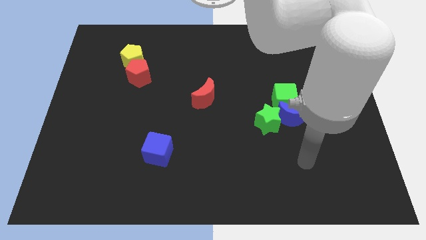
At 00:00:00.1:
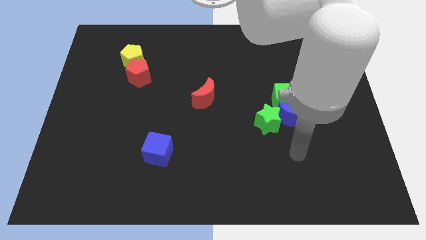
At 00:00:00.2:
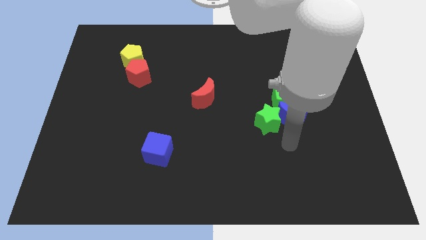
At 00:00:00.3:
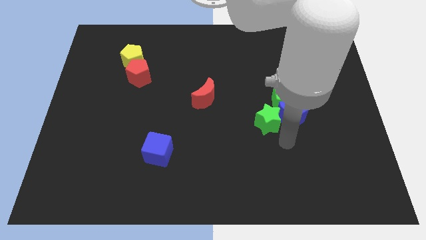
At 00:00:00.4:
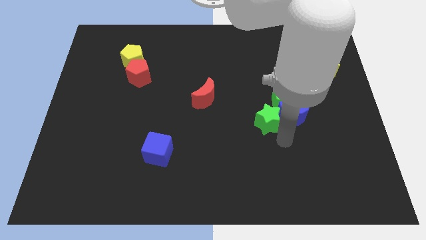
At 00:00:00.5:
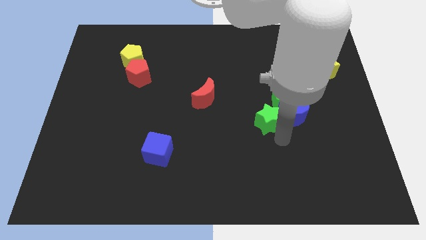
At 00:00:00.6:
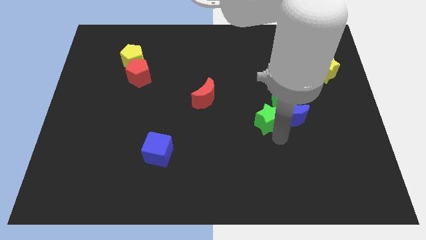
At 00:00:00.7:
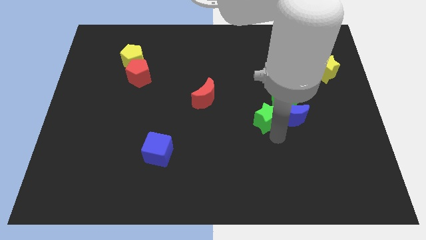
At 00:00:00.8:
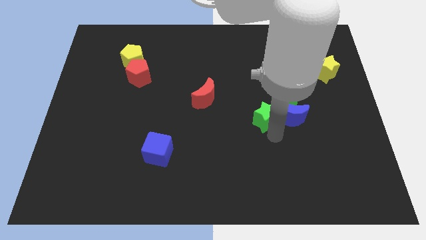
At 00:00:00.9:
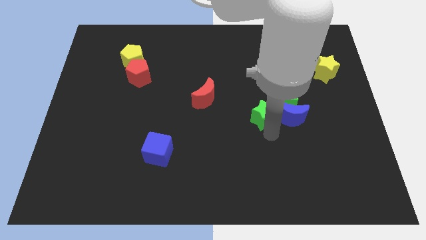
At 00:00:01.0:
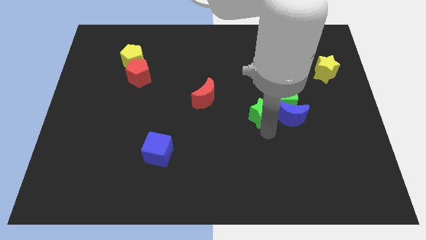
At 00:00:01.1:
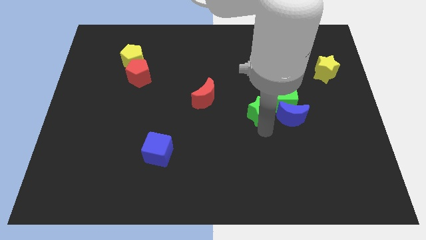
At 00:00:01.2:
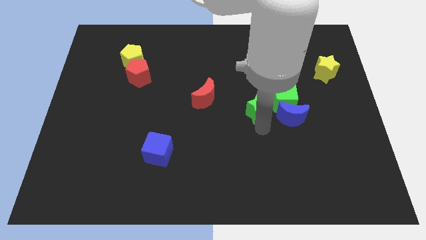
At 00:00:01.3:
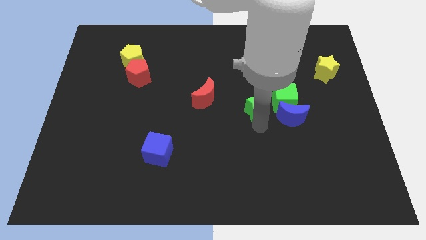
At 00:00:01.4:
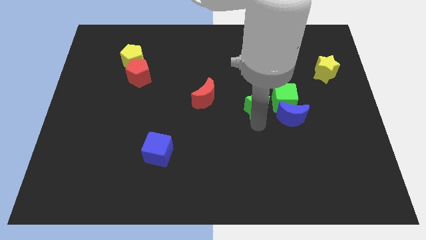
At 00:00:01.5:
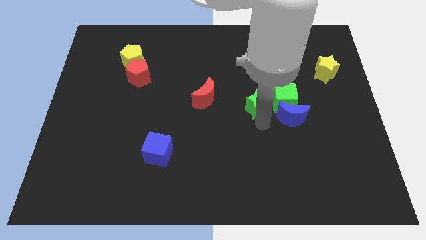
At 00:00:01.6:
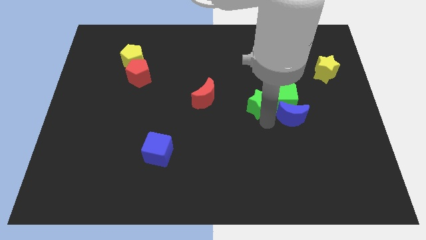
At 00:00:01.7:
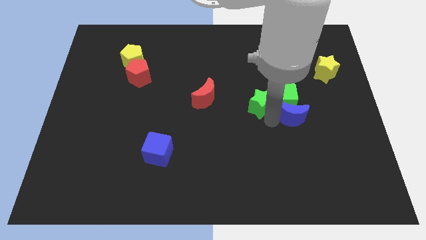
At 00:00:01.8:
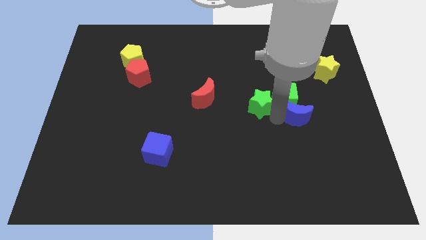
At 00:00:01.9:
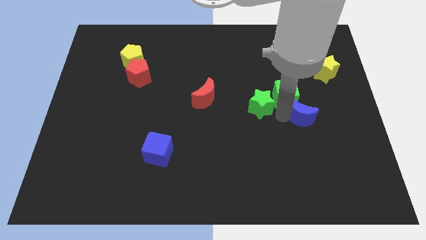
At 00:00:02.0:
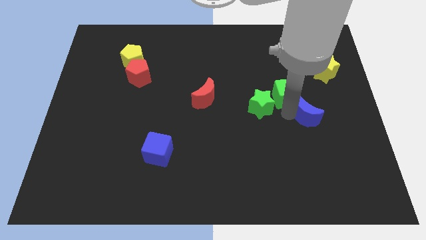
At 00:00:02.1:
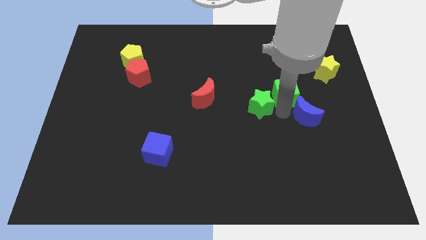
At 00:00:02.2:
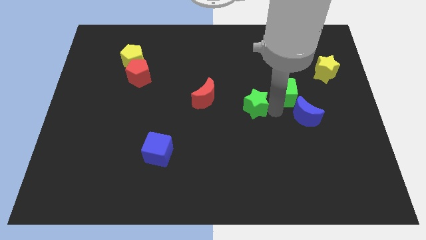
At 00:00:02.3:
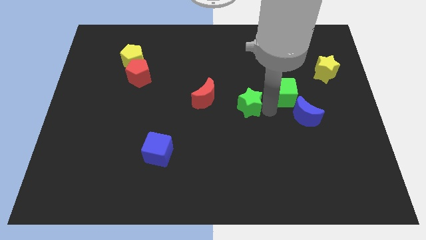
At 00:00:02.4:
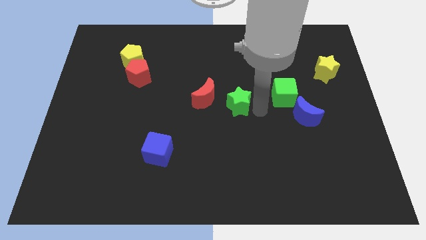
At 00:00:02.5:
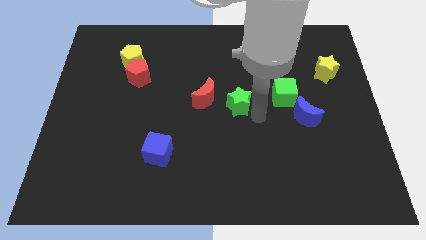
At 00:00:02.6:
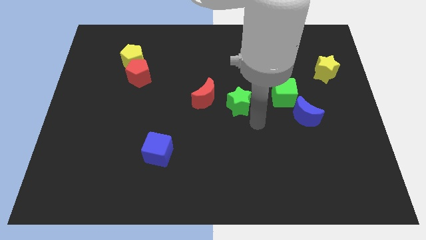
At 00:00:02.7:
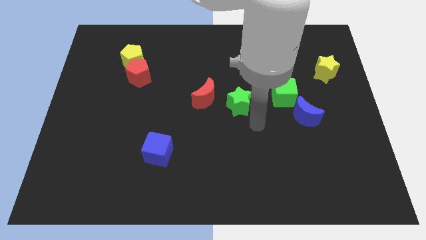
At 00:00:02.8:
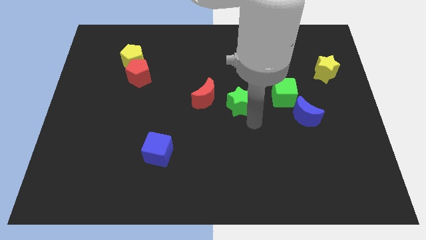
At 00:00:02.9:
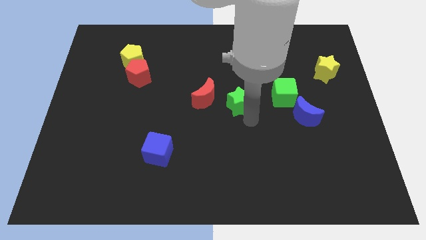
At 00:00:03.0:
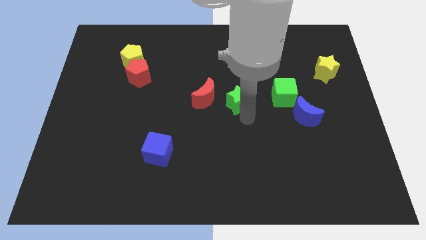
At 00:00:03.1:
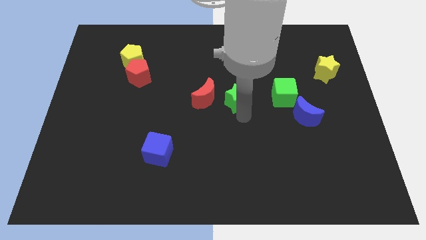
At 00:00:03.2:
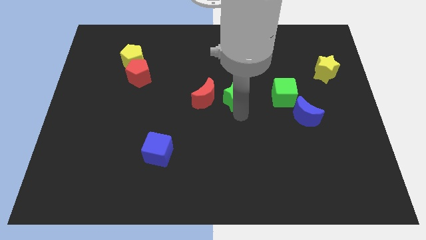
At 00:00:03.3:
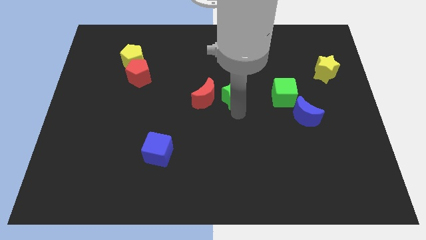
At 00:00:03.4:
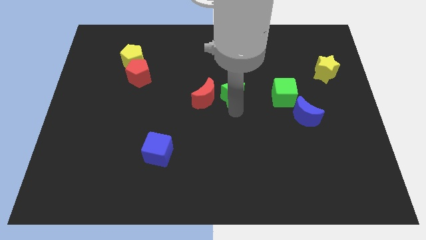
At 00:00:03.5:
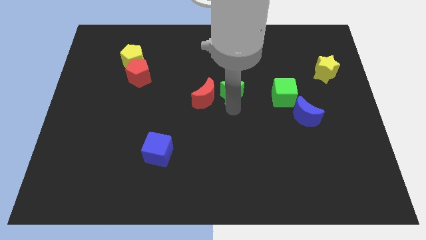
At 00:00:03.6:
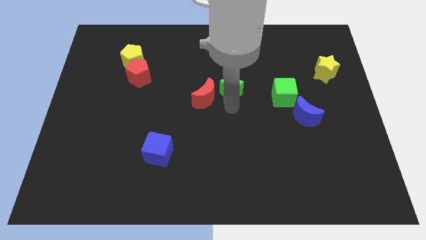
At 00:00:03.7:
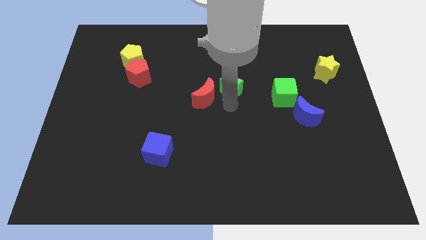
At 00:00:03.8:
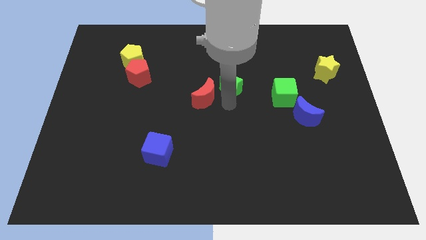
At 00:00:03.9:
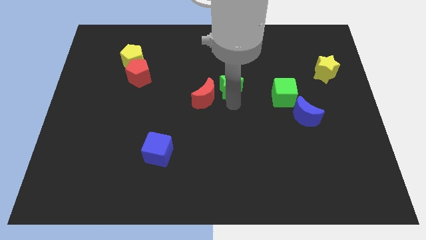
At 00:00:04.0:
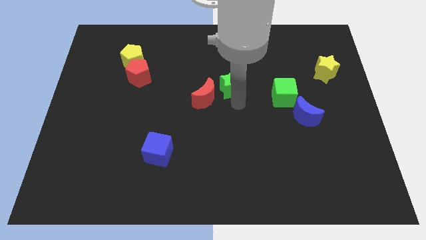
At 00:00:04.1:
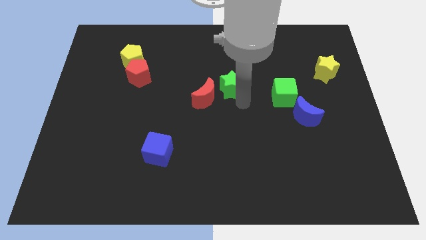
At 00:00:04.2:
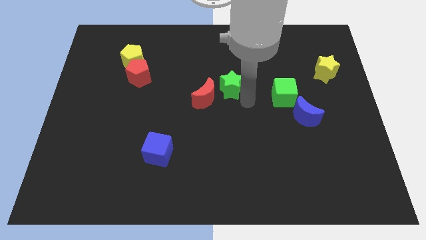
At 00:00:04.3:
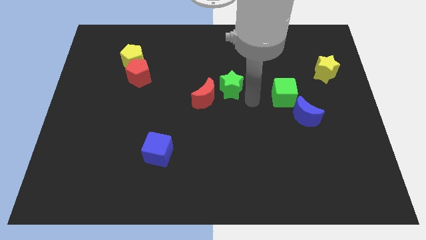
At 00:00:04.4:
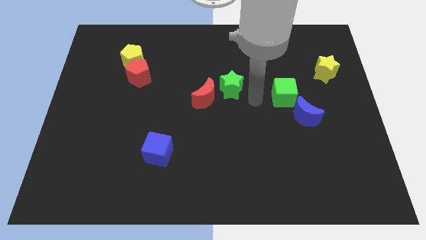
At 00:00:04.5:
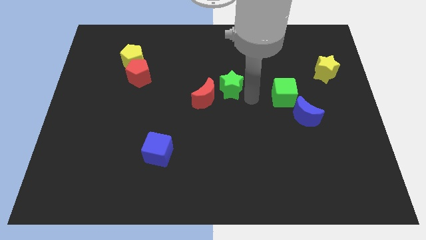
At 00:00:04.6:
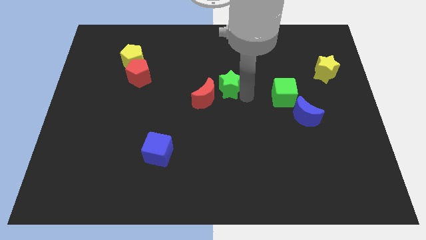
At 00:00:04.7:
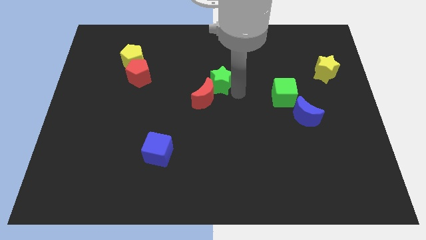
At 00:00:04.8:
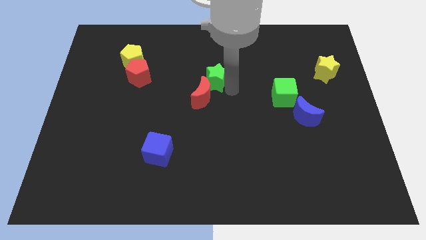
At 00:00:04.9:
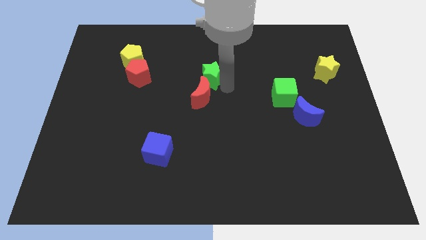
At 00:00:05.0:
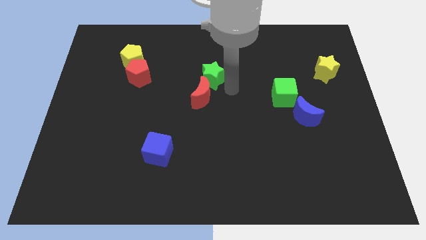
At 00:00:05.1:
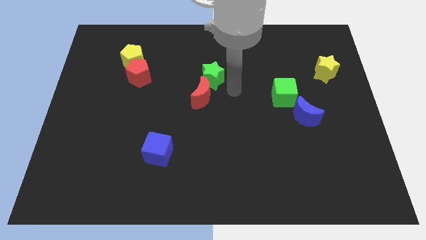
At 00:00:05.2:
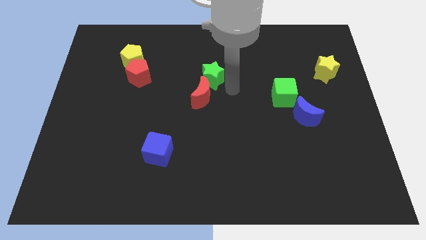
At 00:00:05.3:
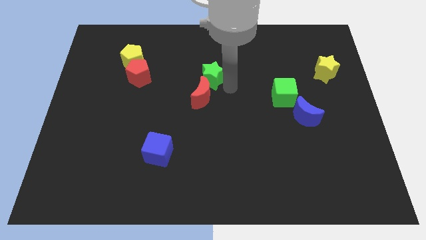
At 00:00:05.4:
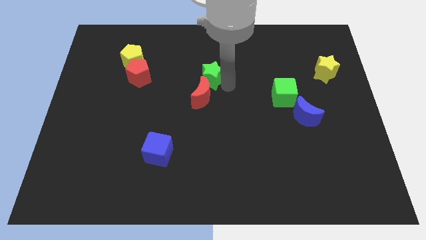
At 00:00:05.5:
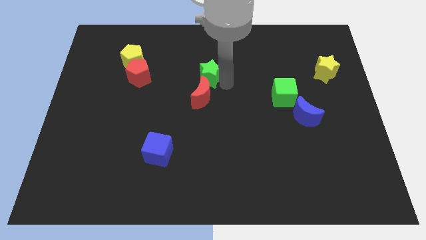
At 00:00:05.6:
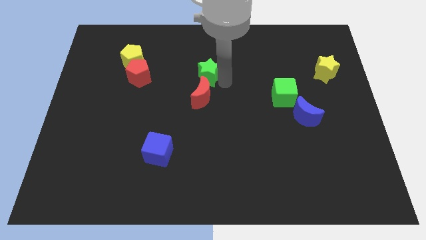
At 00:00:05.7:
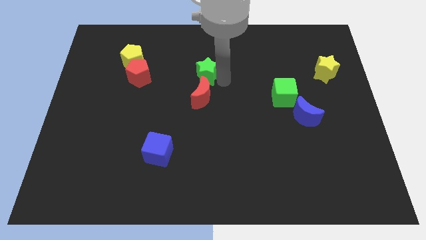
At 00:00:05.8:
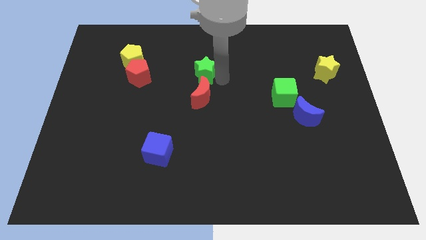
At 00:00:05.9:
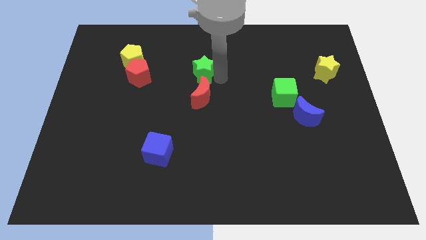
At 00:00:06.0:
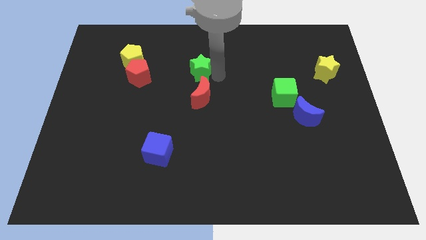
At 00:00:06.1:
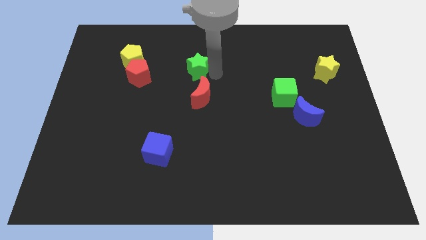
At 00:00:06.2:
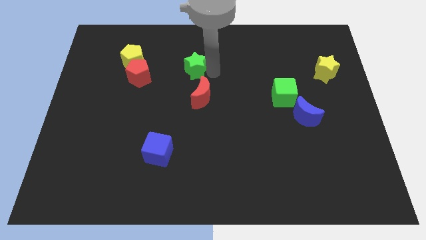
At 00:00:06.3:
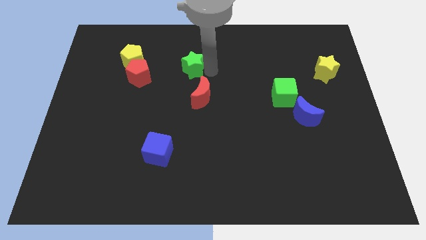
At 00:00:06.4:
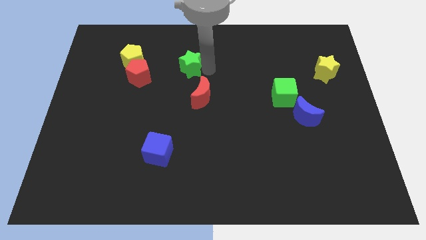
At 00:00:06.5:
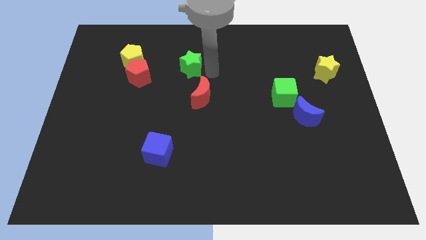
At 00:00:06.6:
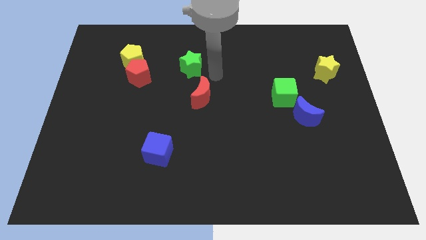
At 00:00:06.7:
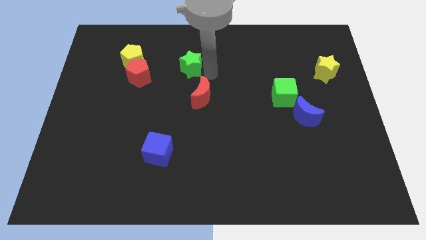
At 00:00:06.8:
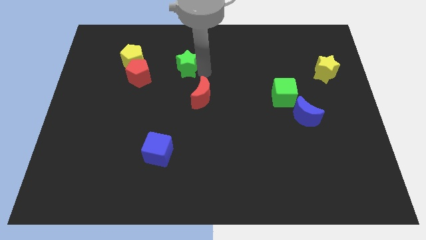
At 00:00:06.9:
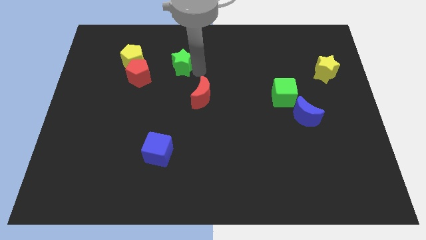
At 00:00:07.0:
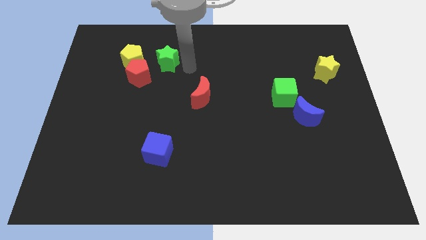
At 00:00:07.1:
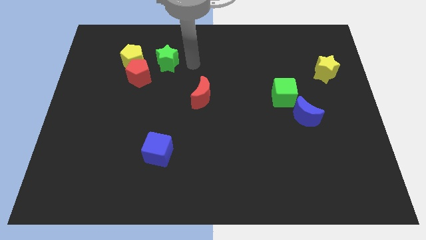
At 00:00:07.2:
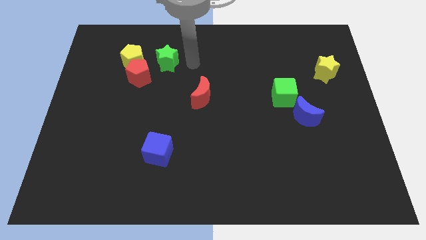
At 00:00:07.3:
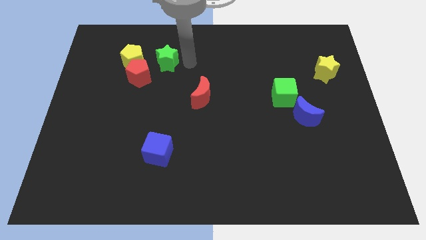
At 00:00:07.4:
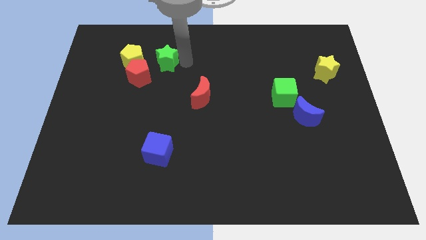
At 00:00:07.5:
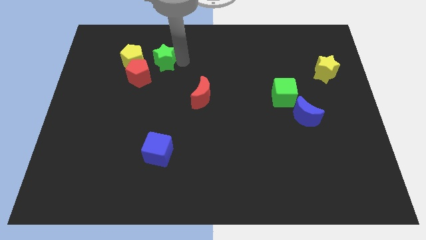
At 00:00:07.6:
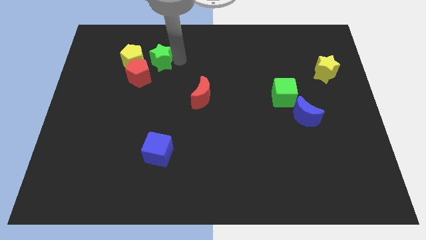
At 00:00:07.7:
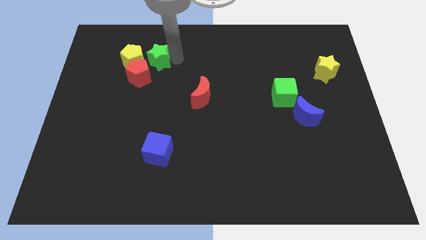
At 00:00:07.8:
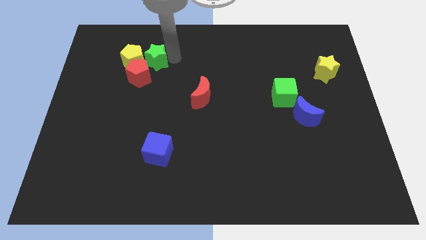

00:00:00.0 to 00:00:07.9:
slide the green star to the yellow pentagon
